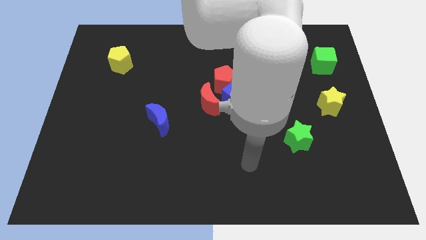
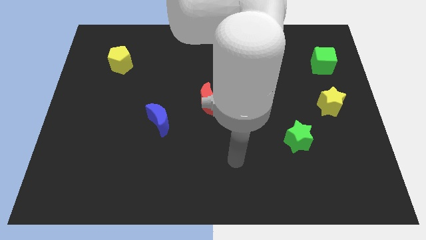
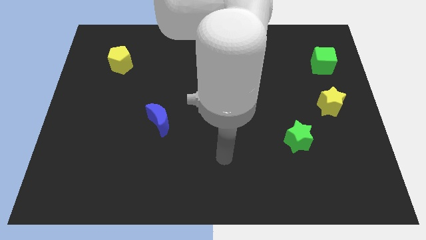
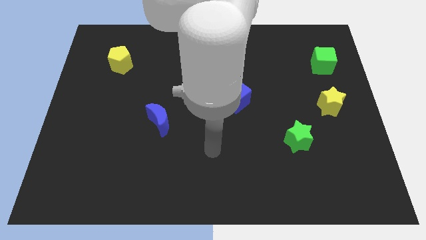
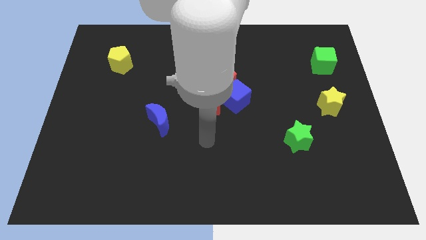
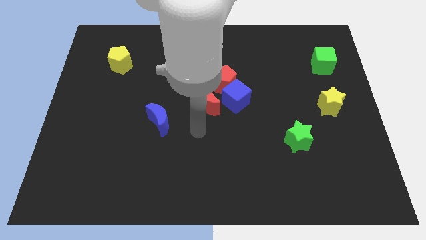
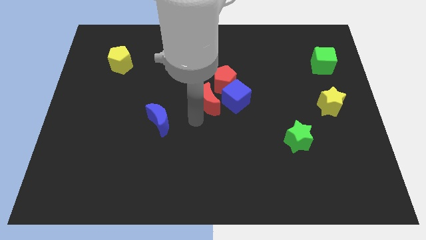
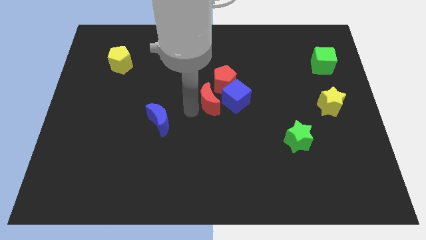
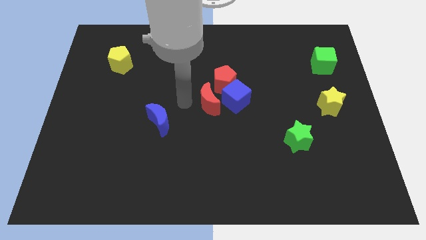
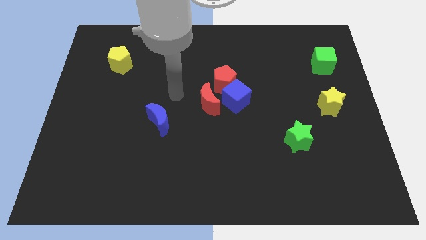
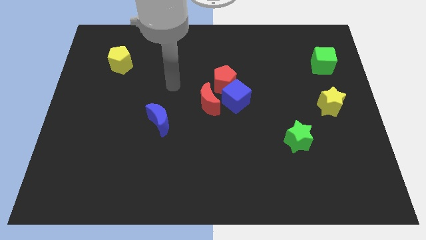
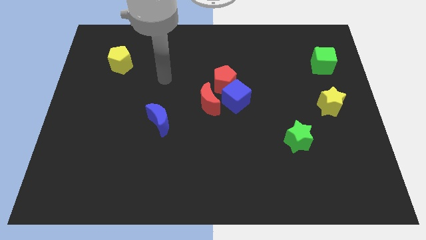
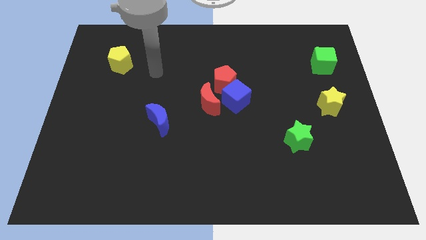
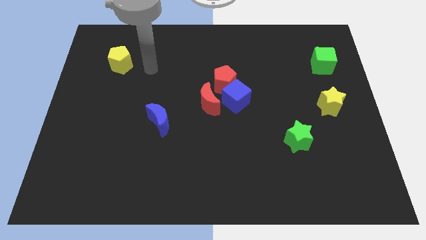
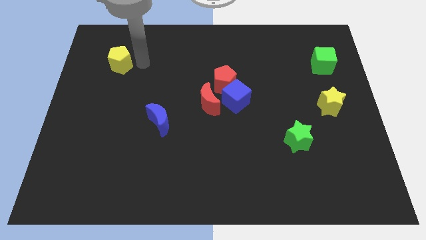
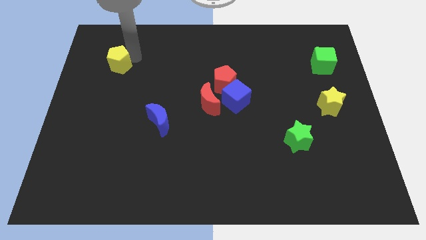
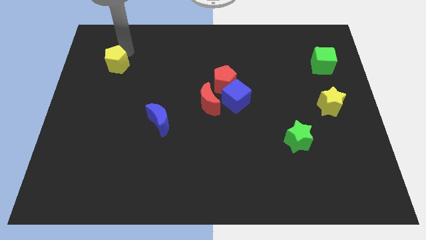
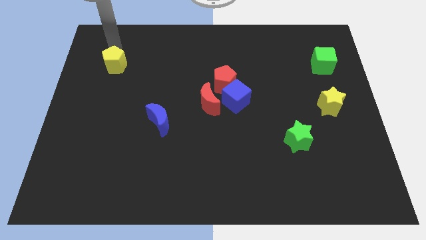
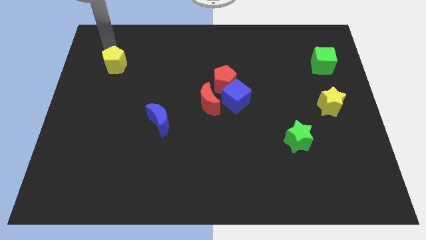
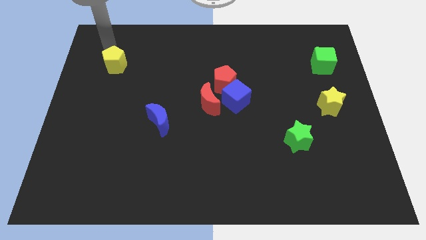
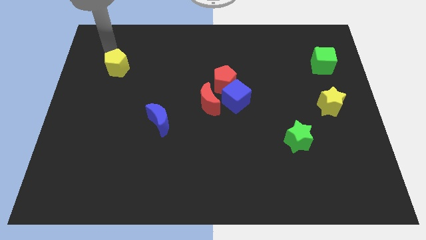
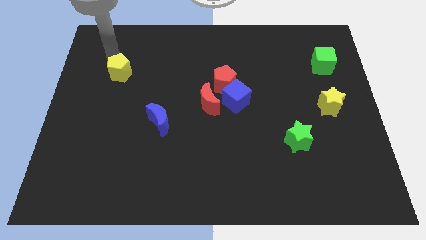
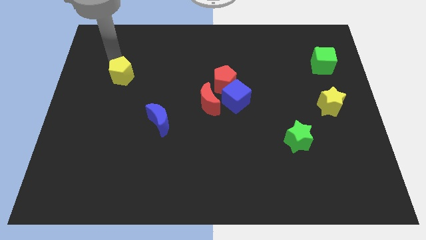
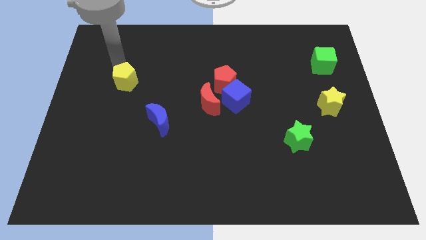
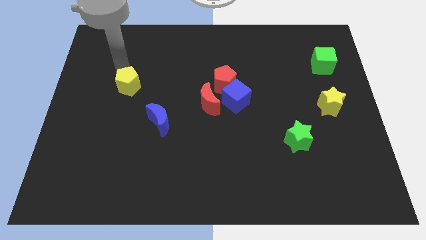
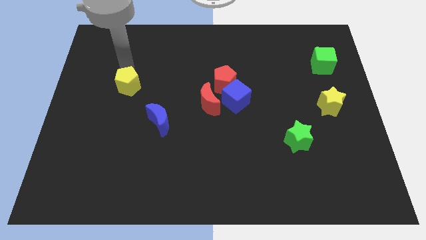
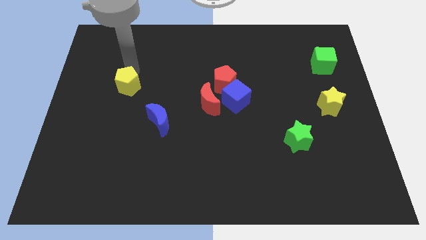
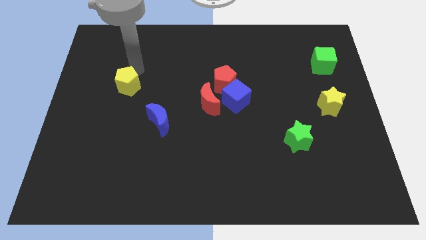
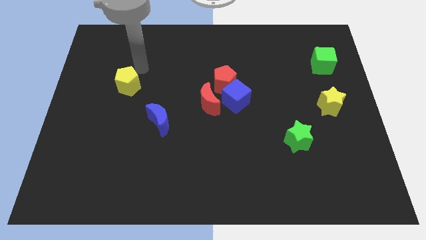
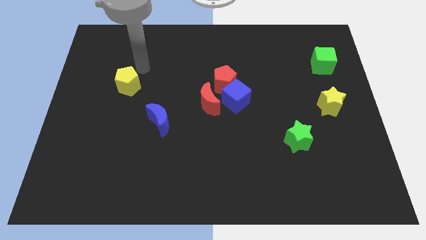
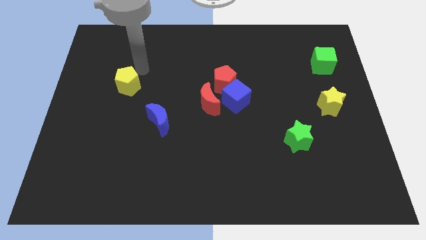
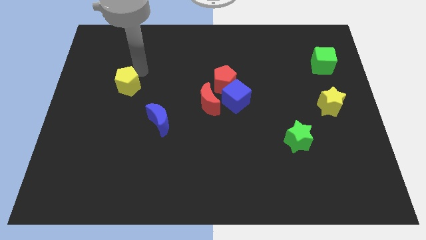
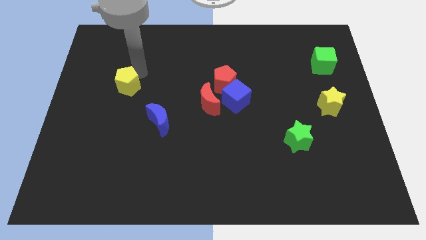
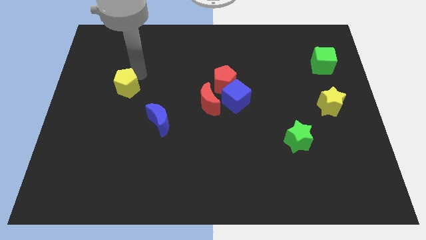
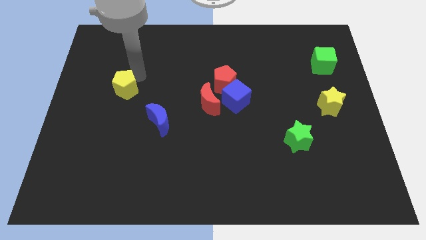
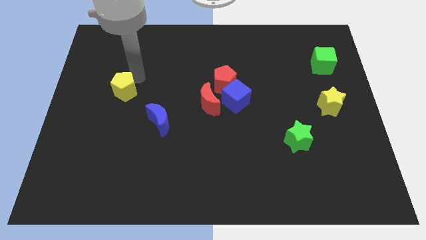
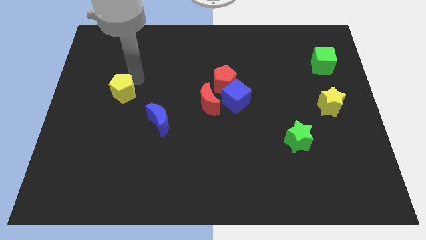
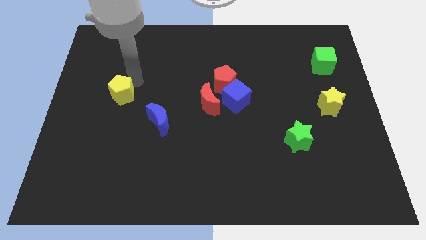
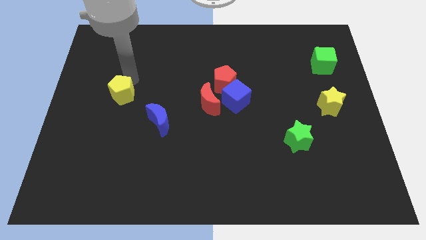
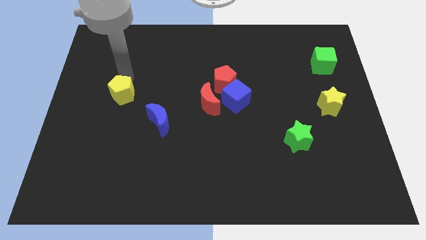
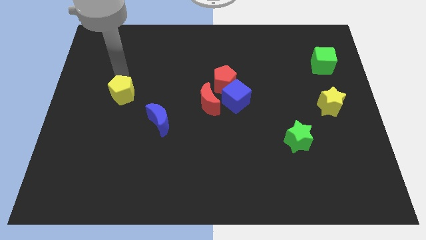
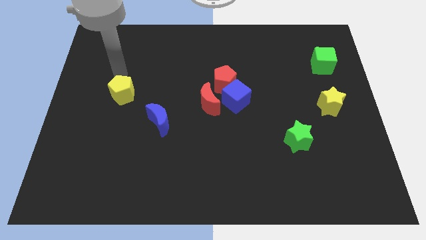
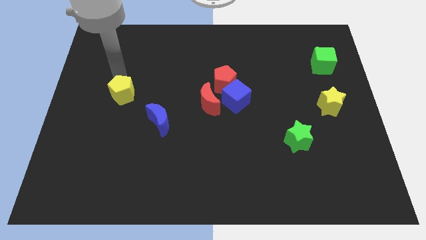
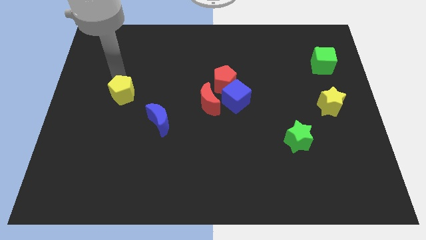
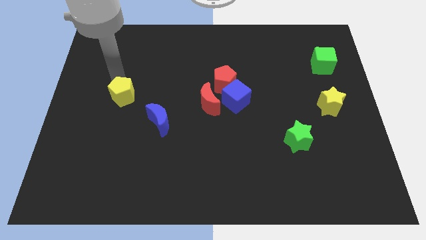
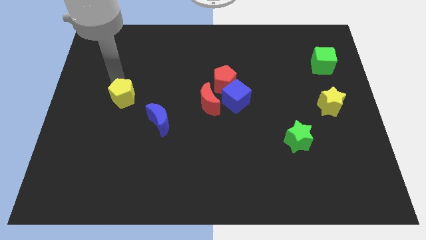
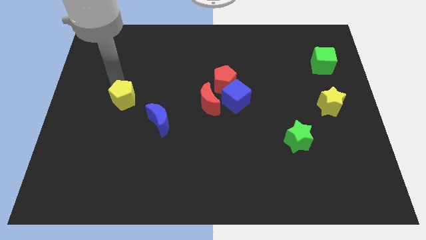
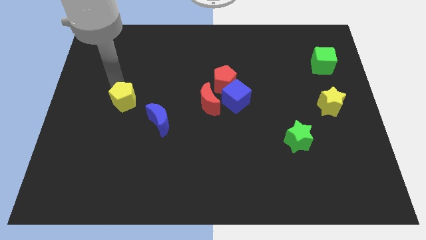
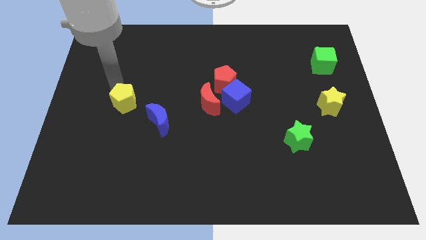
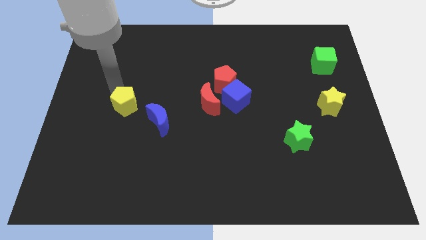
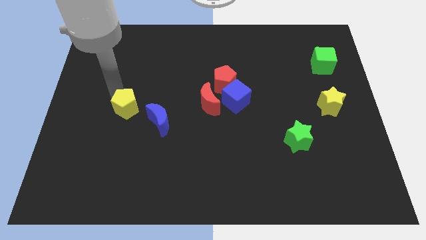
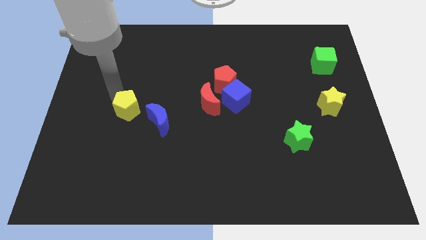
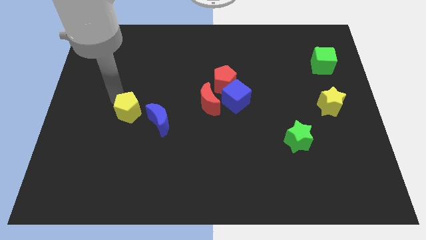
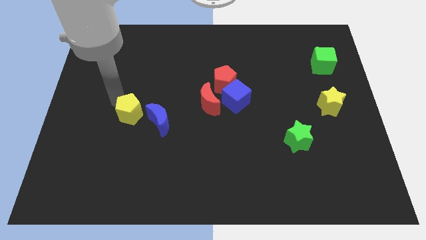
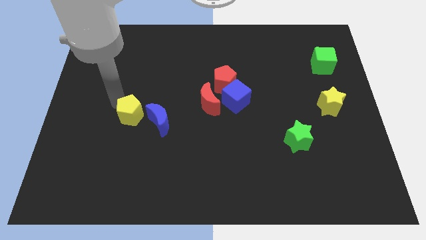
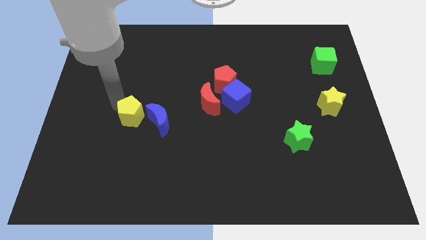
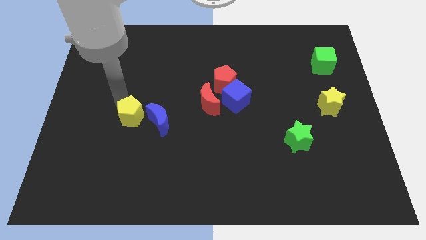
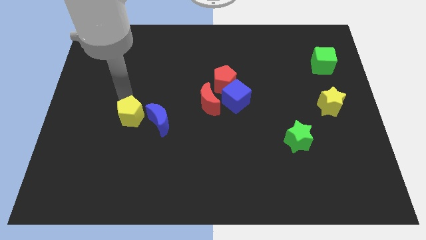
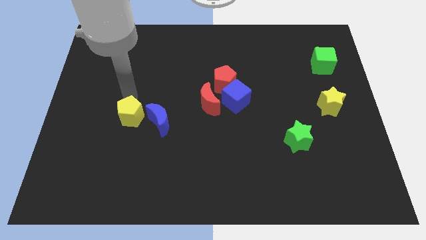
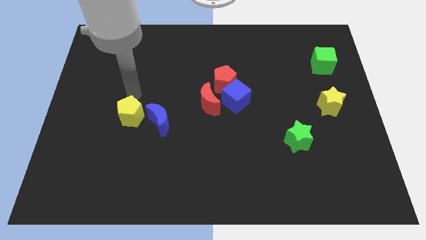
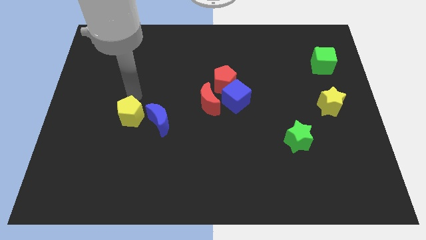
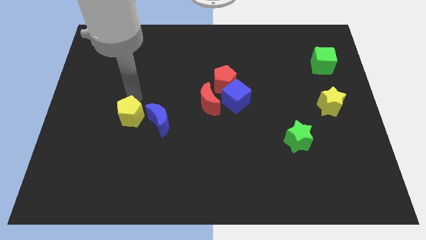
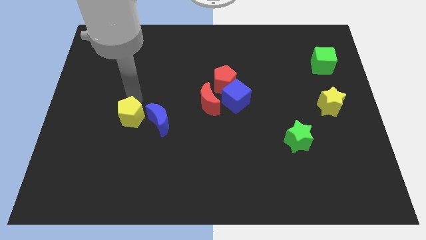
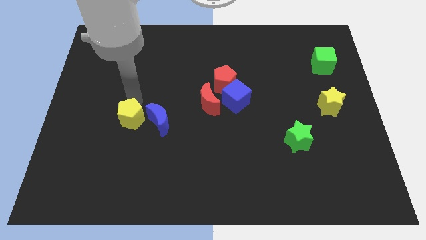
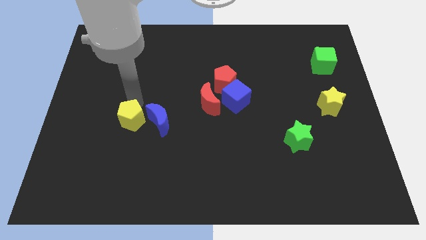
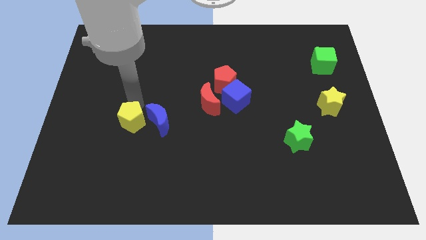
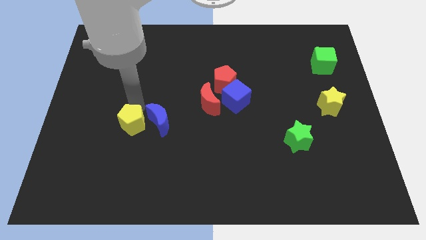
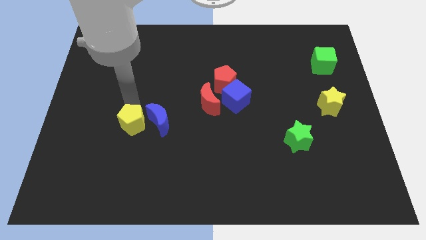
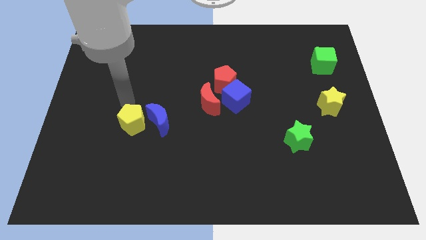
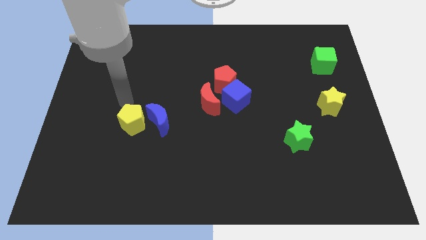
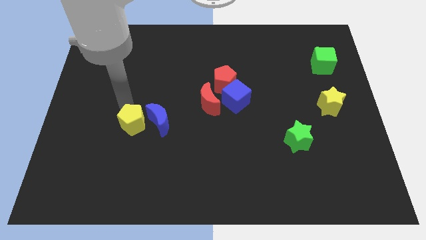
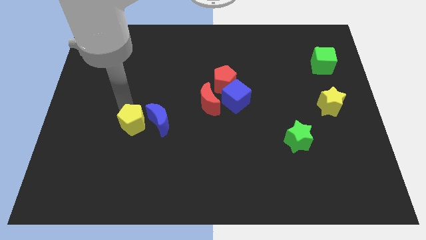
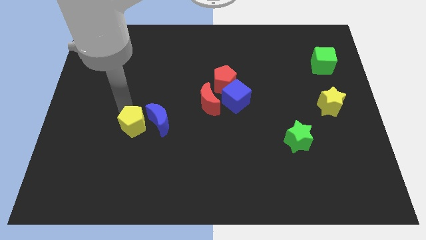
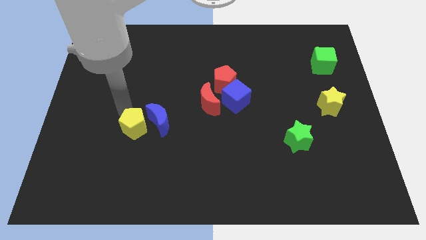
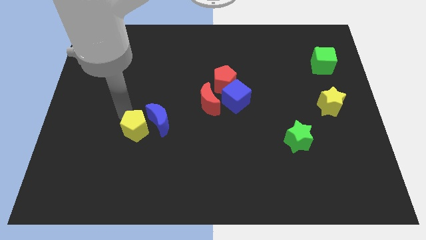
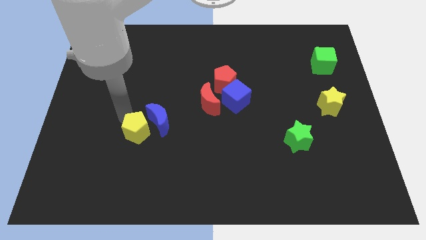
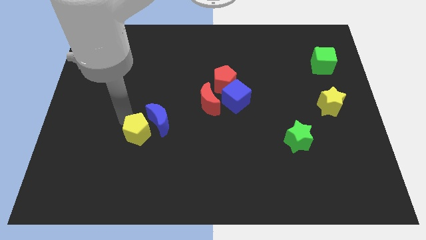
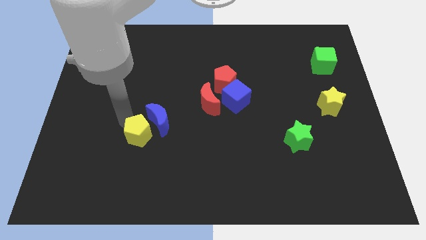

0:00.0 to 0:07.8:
push the yellow pentagon to the bottom of the blue moon

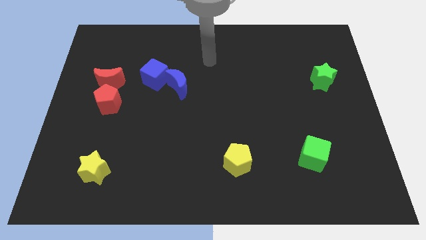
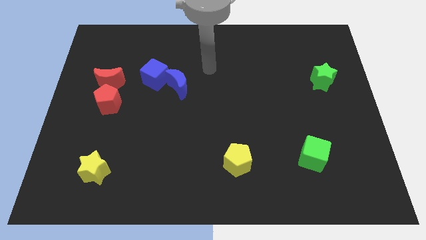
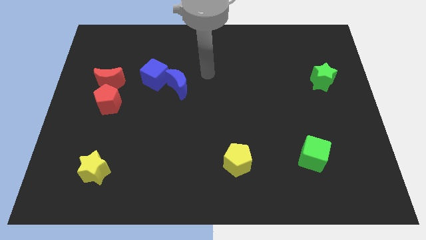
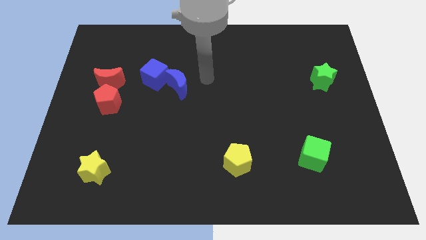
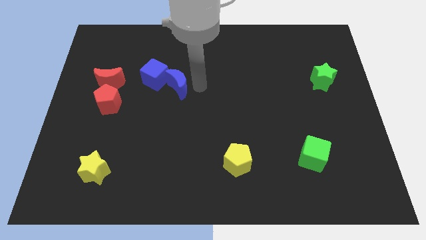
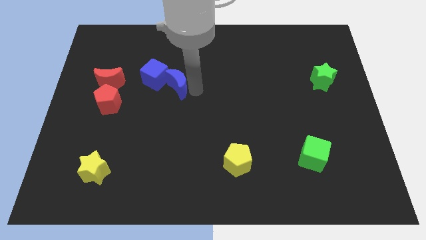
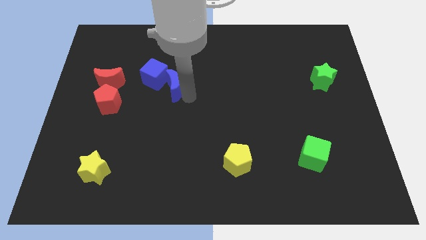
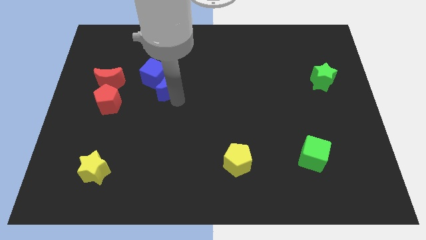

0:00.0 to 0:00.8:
put the blue cube to the top of the blue moon
